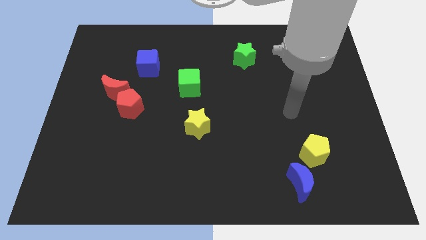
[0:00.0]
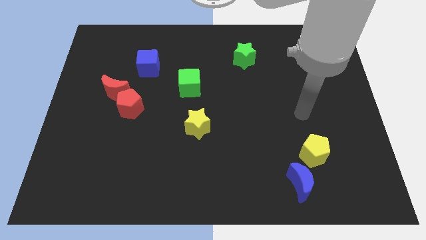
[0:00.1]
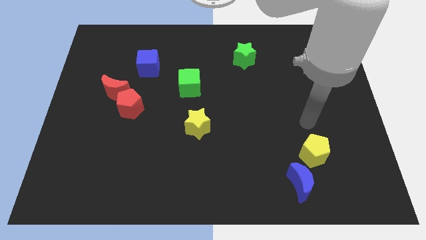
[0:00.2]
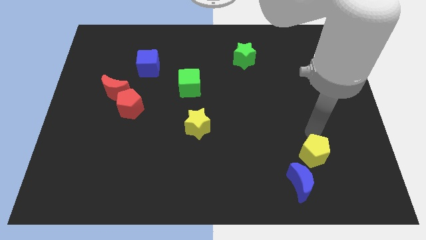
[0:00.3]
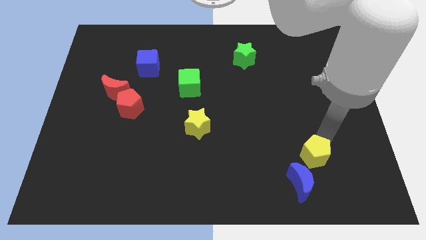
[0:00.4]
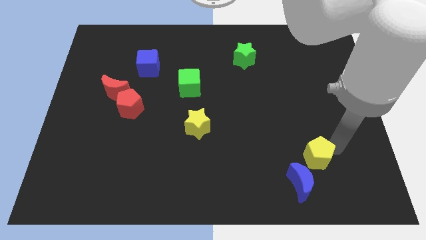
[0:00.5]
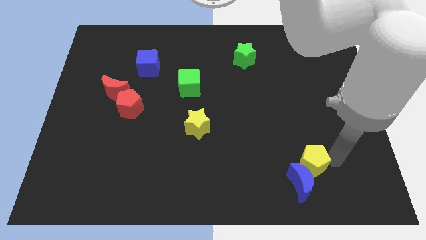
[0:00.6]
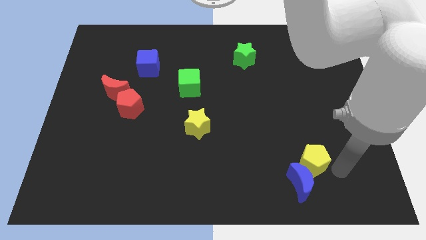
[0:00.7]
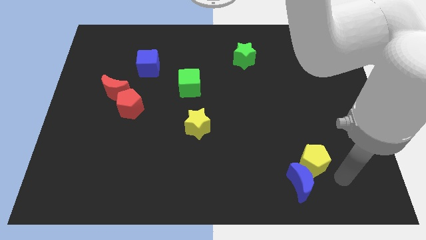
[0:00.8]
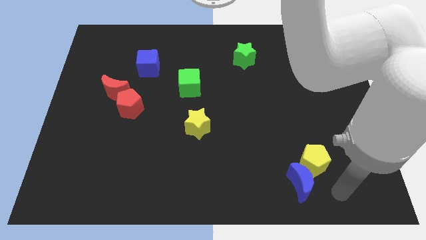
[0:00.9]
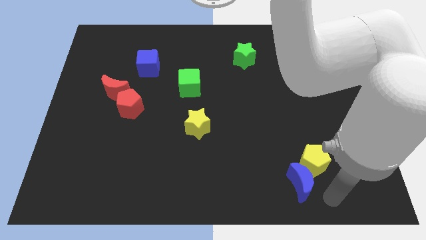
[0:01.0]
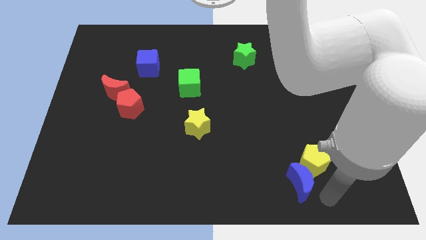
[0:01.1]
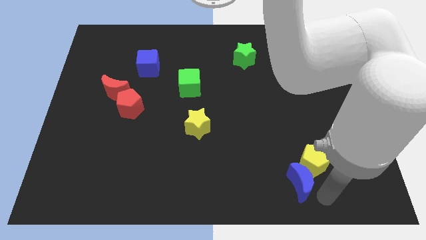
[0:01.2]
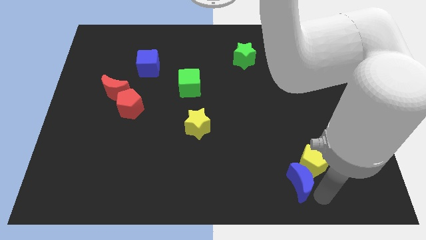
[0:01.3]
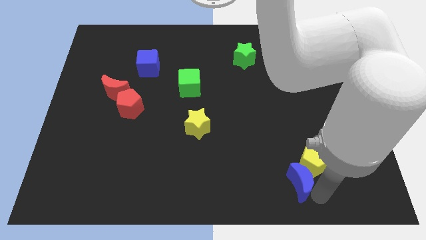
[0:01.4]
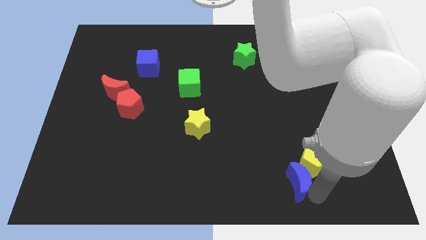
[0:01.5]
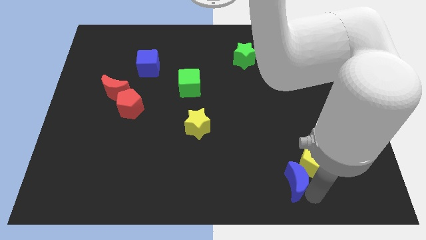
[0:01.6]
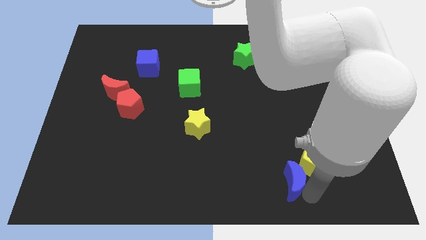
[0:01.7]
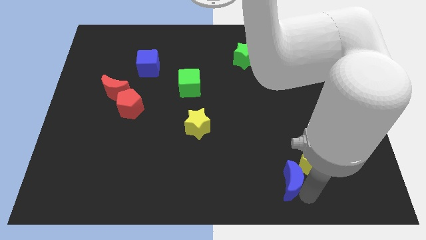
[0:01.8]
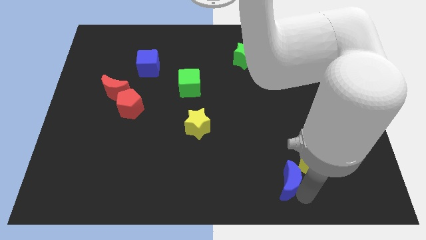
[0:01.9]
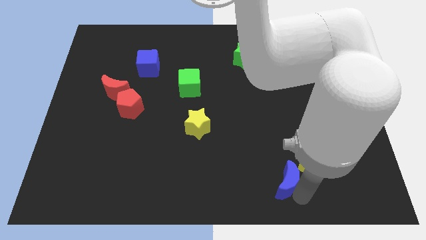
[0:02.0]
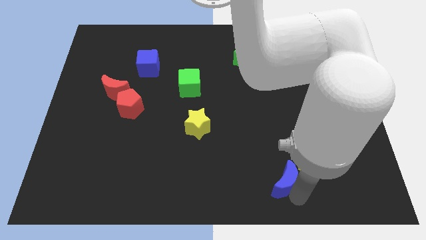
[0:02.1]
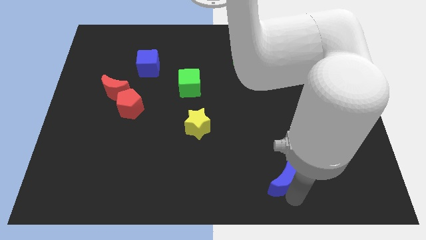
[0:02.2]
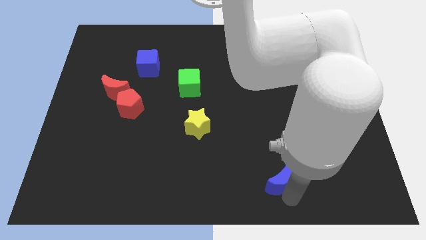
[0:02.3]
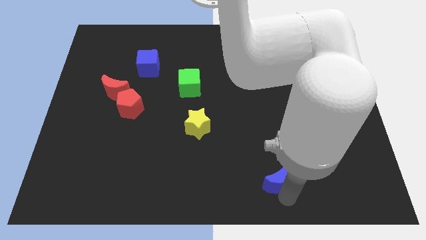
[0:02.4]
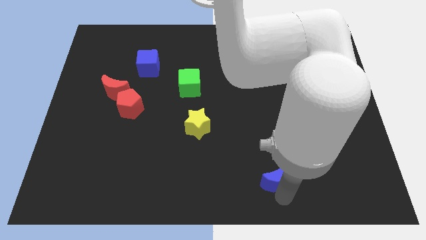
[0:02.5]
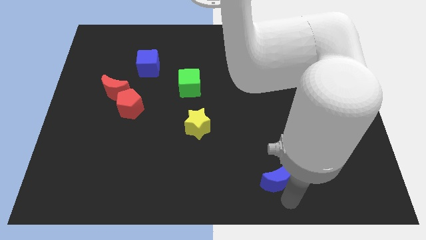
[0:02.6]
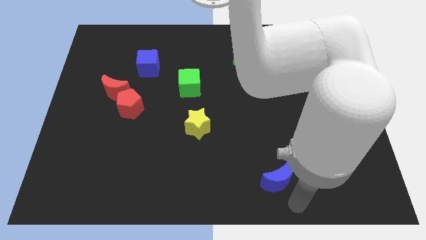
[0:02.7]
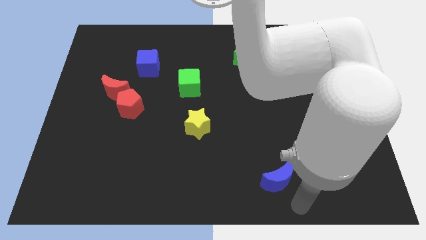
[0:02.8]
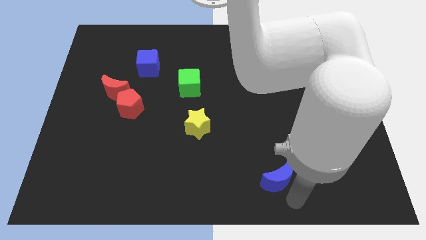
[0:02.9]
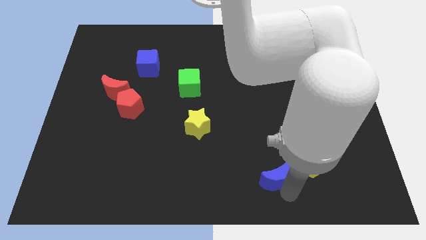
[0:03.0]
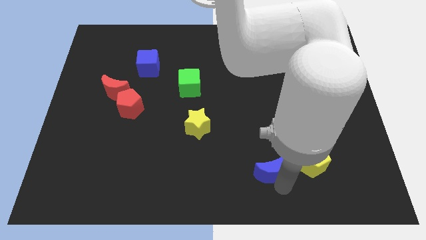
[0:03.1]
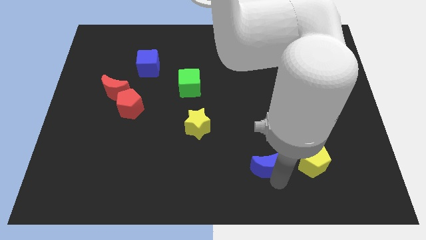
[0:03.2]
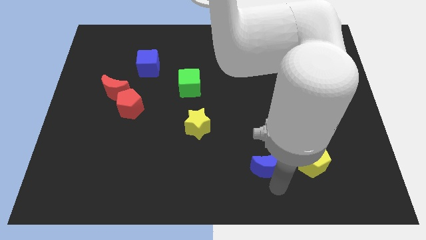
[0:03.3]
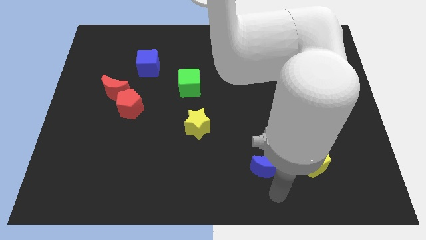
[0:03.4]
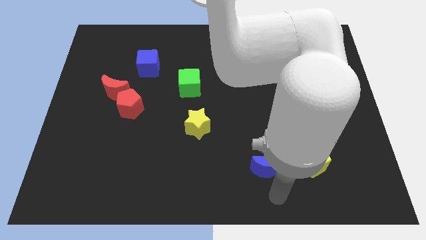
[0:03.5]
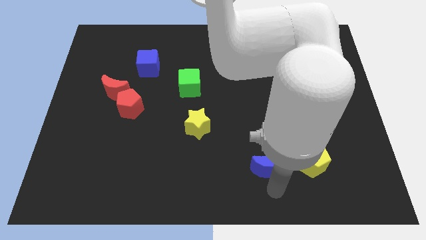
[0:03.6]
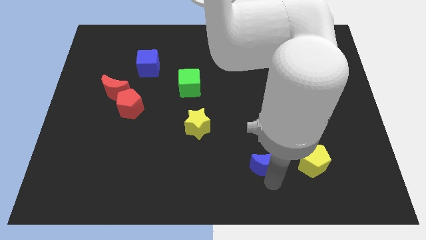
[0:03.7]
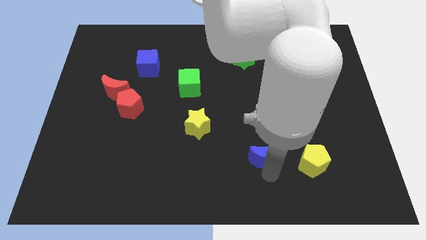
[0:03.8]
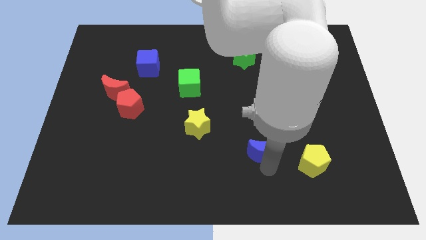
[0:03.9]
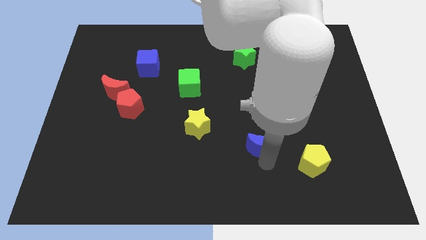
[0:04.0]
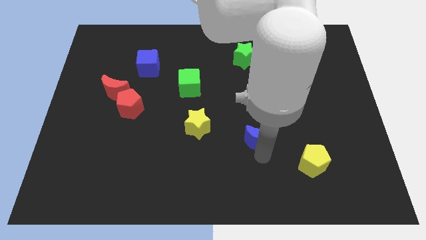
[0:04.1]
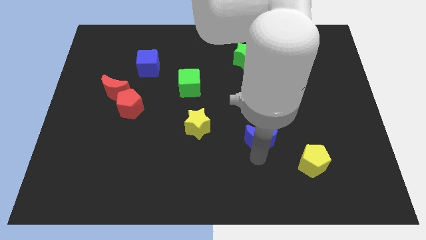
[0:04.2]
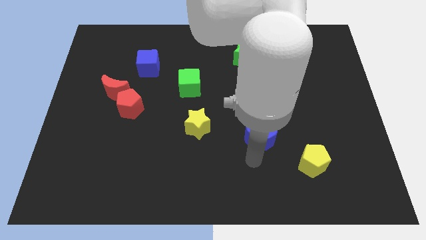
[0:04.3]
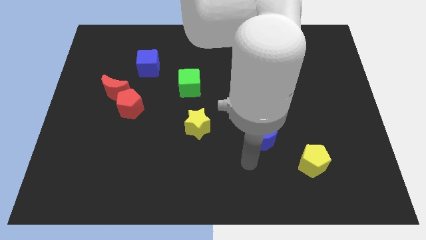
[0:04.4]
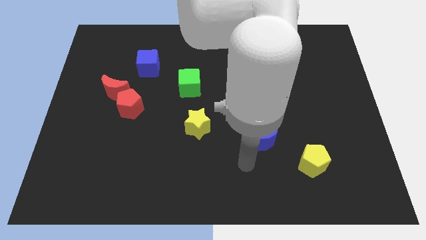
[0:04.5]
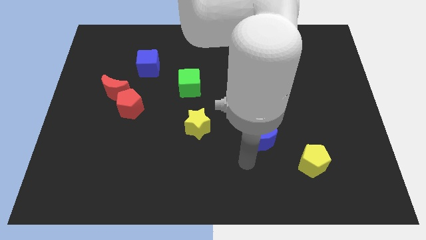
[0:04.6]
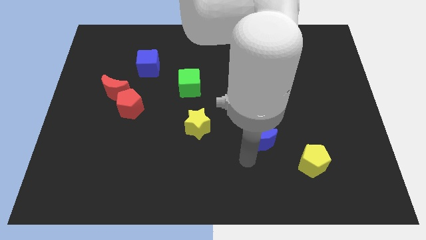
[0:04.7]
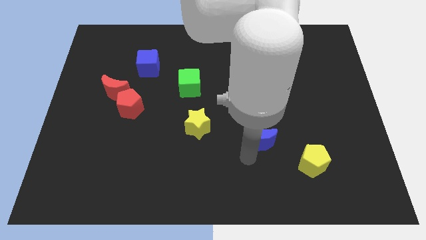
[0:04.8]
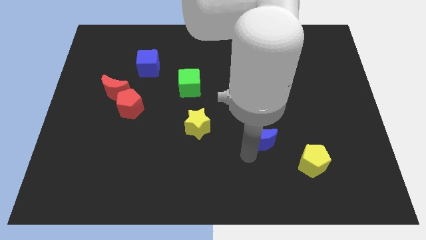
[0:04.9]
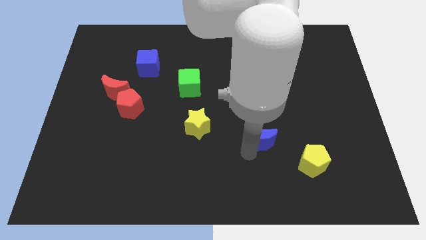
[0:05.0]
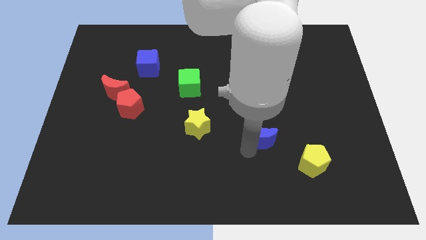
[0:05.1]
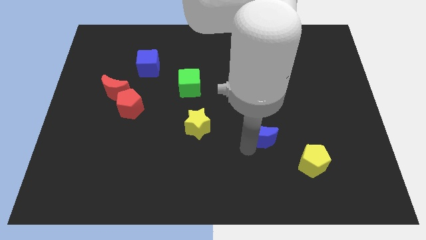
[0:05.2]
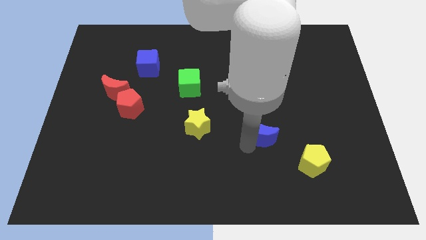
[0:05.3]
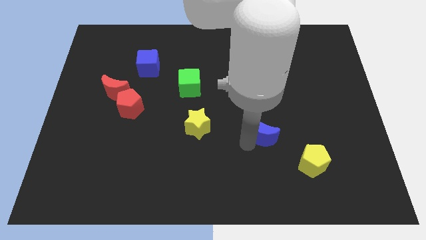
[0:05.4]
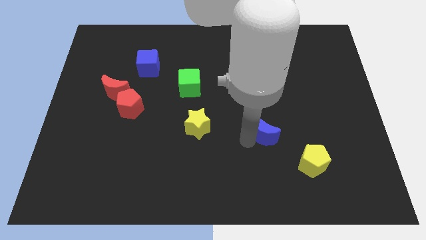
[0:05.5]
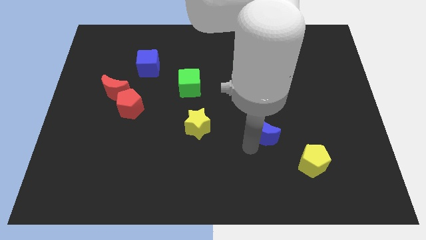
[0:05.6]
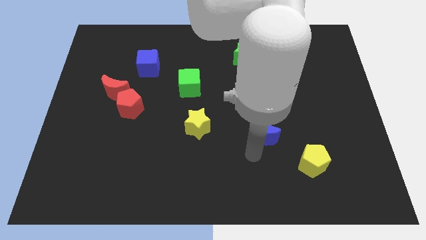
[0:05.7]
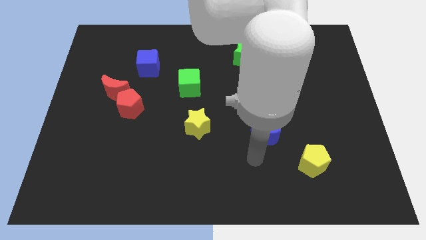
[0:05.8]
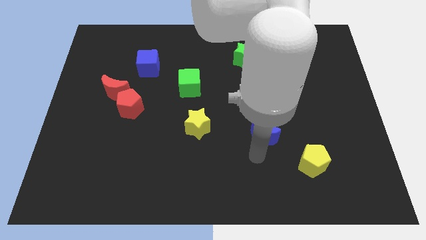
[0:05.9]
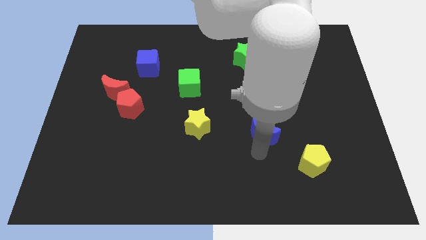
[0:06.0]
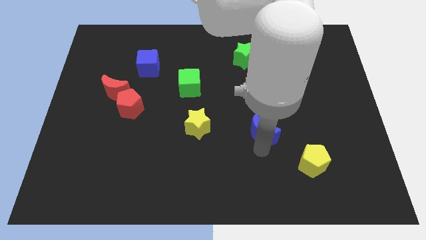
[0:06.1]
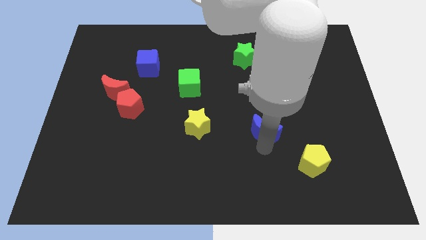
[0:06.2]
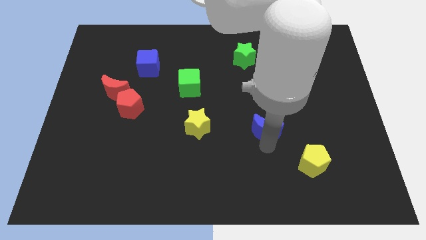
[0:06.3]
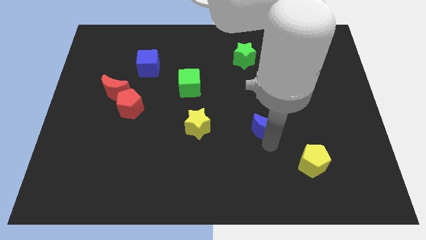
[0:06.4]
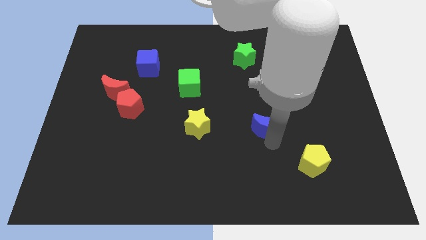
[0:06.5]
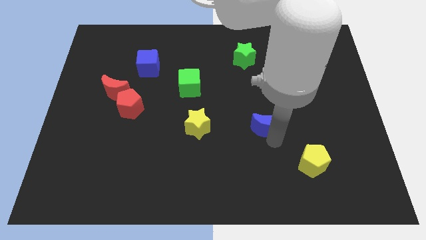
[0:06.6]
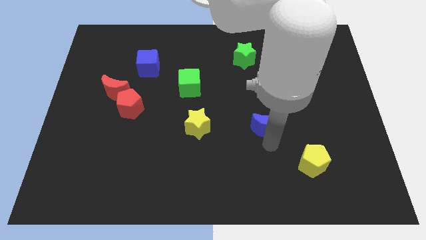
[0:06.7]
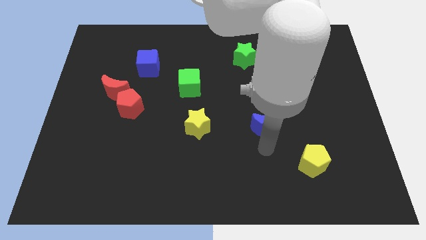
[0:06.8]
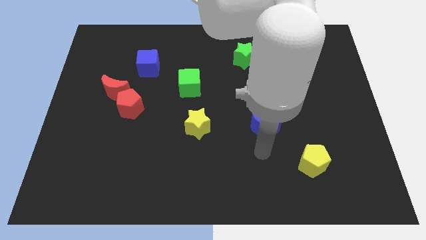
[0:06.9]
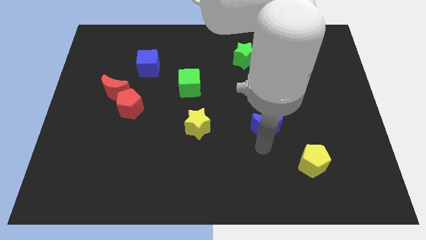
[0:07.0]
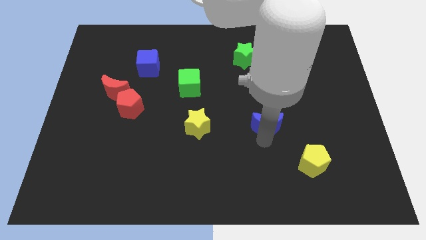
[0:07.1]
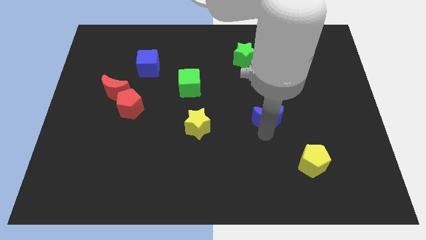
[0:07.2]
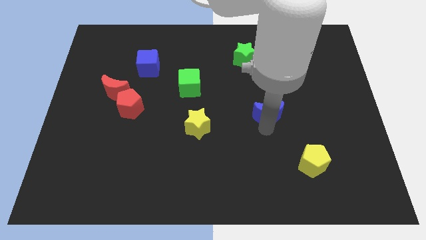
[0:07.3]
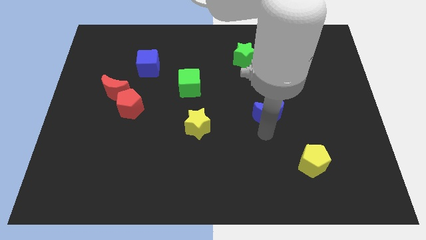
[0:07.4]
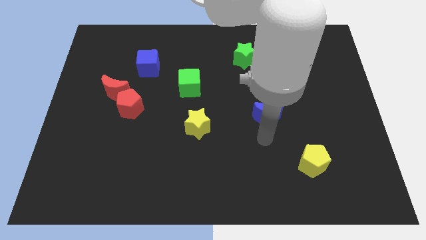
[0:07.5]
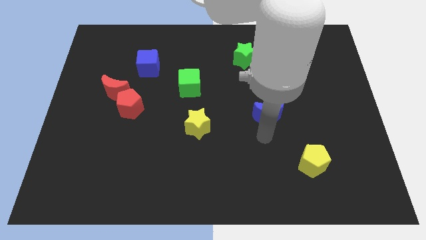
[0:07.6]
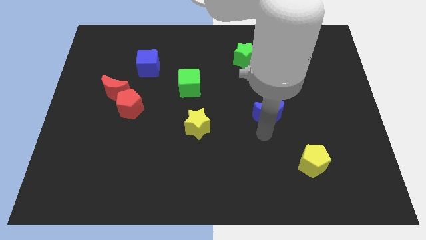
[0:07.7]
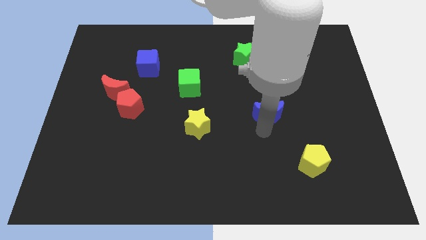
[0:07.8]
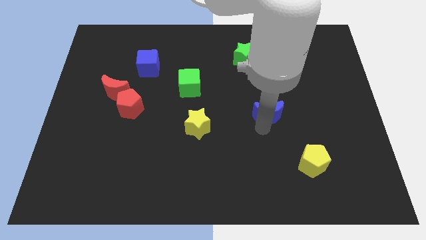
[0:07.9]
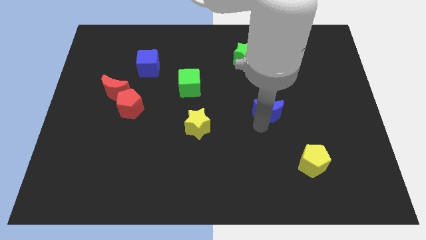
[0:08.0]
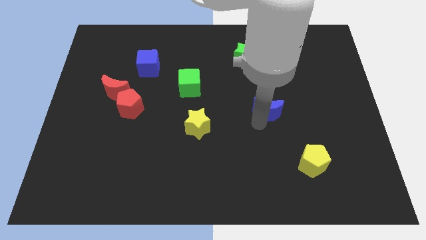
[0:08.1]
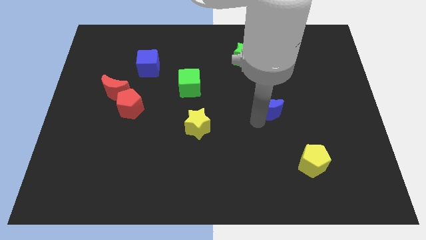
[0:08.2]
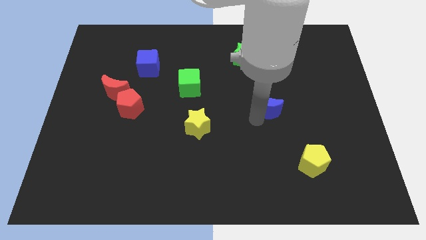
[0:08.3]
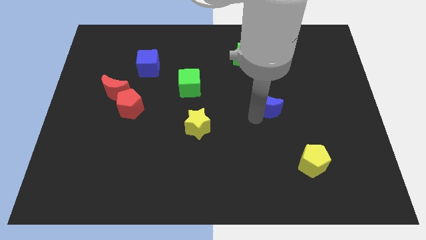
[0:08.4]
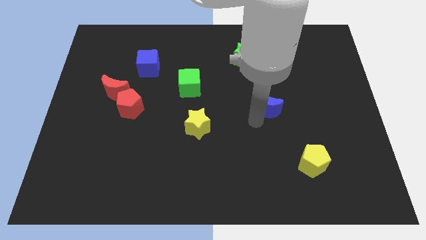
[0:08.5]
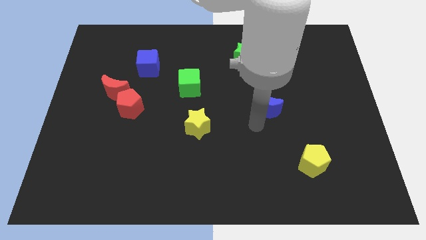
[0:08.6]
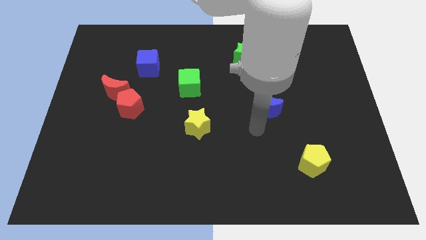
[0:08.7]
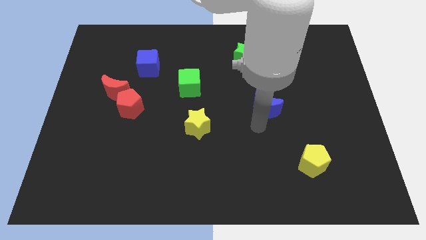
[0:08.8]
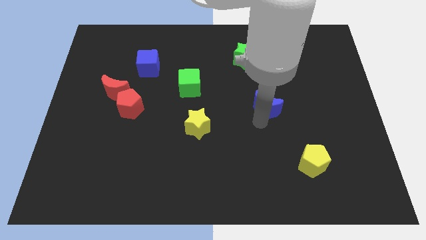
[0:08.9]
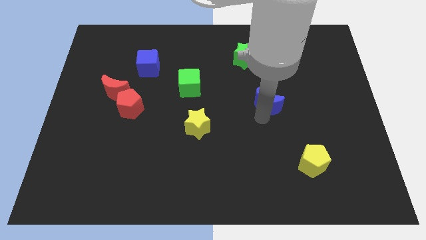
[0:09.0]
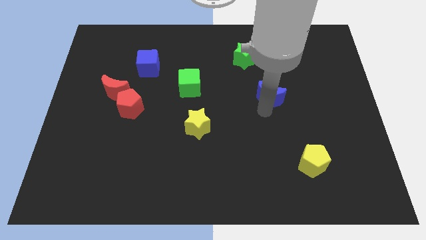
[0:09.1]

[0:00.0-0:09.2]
move the blue moon up
